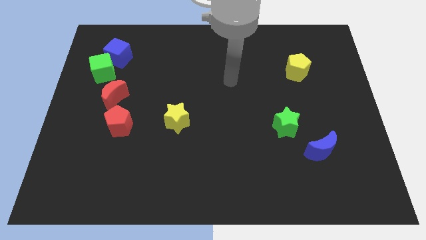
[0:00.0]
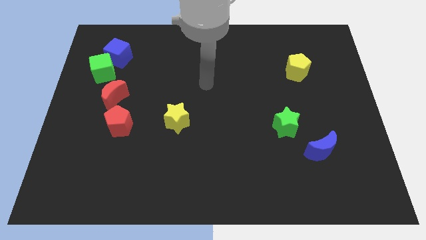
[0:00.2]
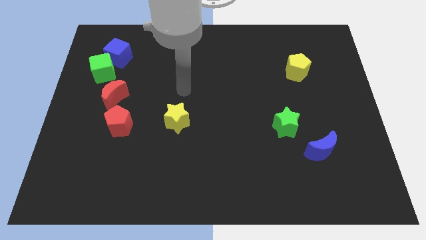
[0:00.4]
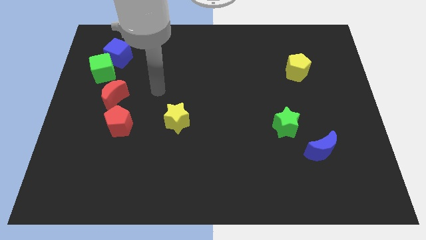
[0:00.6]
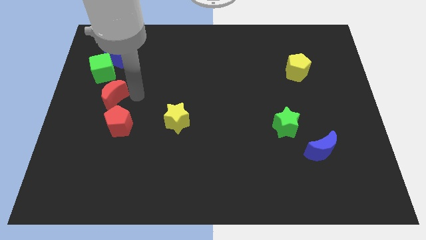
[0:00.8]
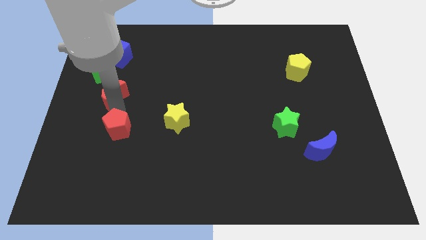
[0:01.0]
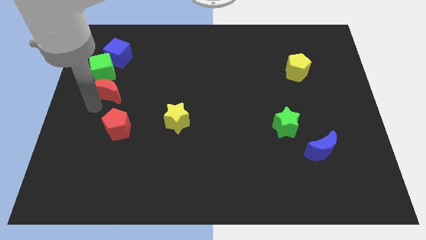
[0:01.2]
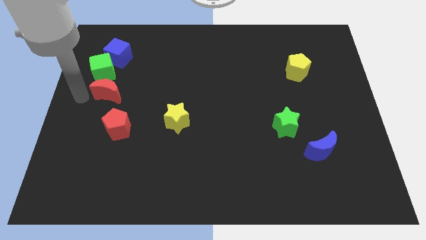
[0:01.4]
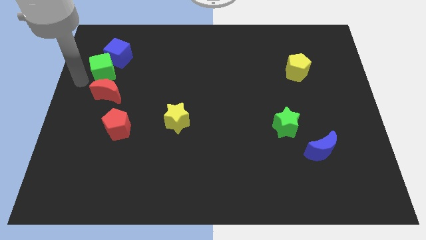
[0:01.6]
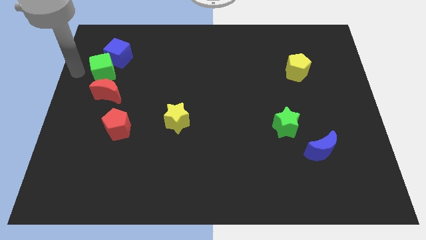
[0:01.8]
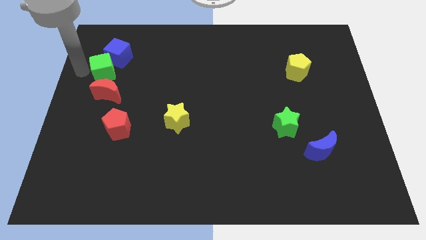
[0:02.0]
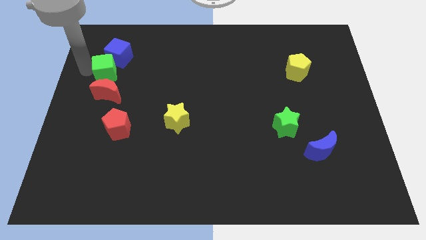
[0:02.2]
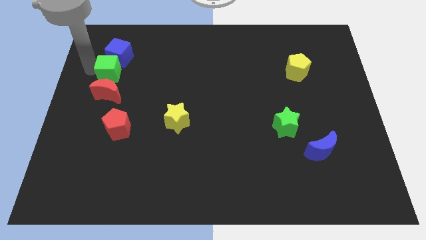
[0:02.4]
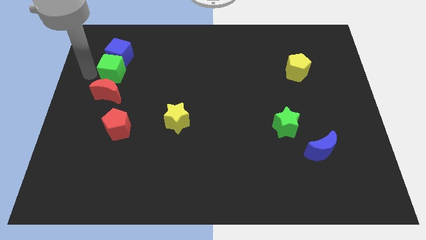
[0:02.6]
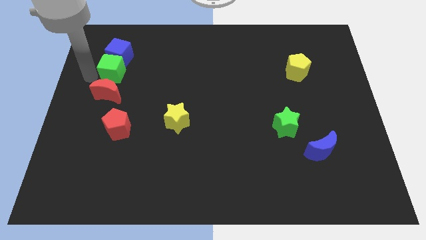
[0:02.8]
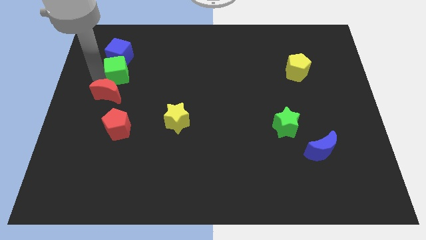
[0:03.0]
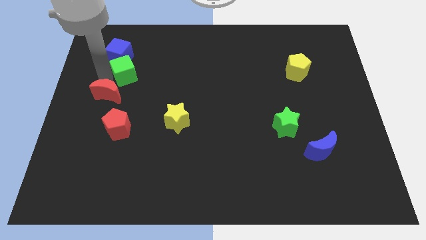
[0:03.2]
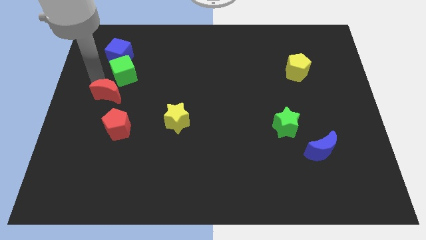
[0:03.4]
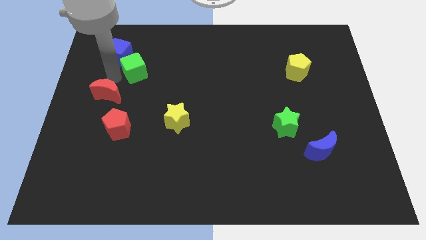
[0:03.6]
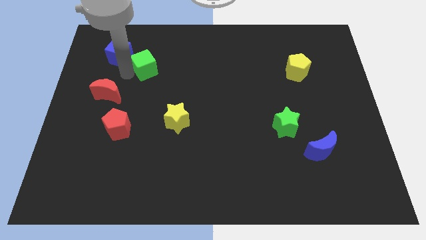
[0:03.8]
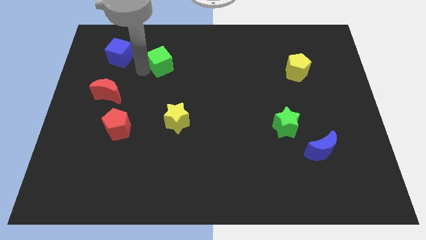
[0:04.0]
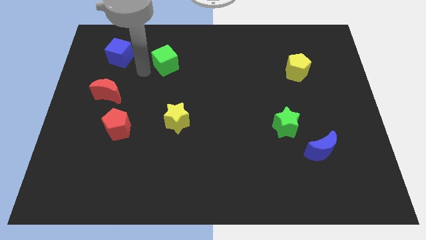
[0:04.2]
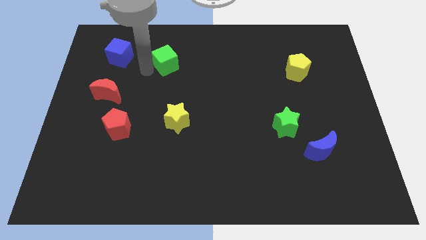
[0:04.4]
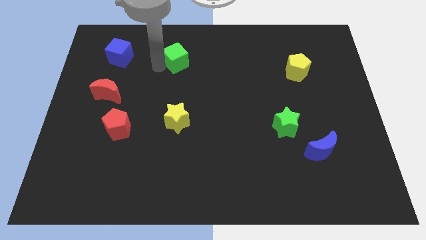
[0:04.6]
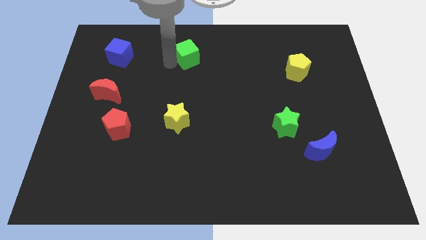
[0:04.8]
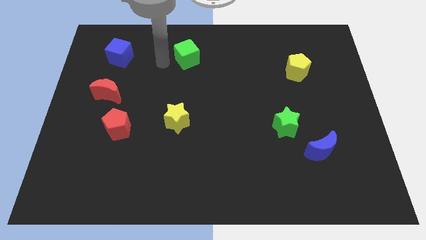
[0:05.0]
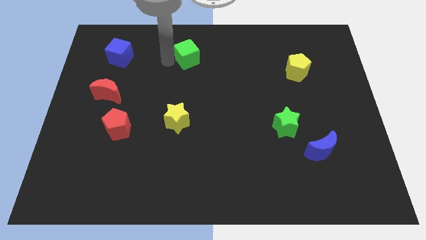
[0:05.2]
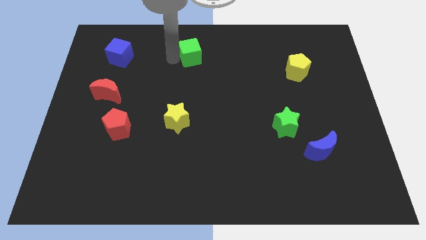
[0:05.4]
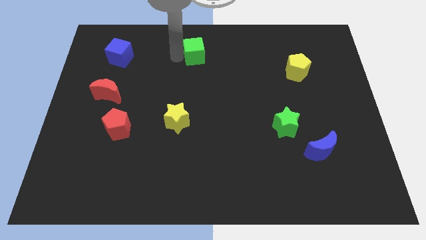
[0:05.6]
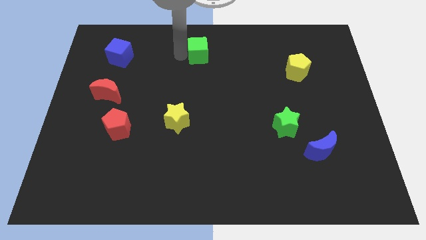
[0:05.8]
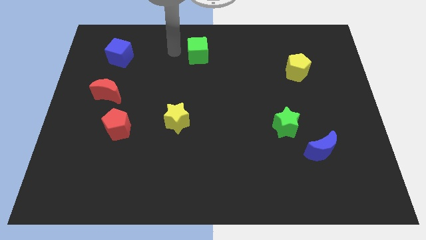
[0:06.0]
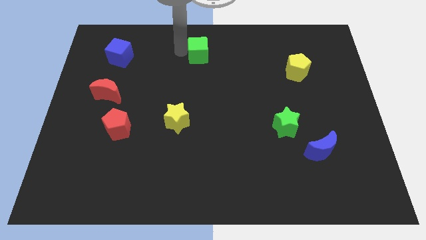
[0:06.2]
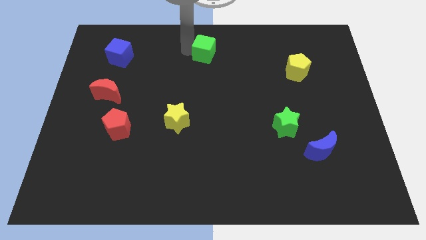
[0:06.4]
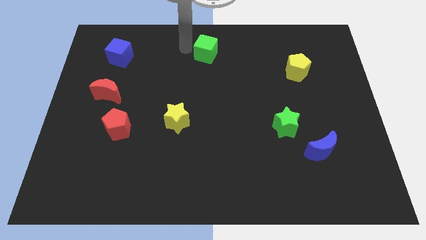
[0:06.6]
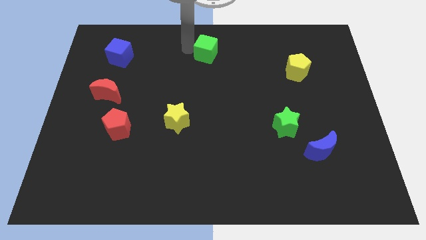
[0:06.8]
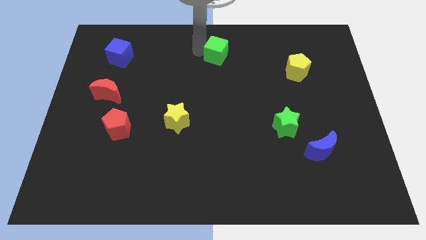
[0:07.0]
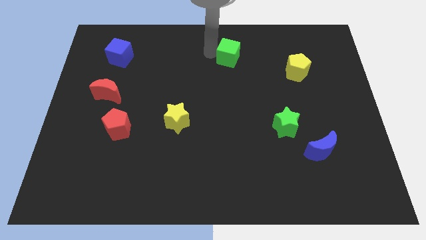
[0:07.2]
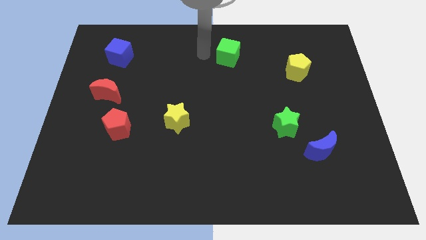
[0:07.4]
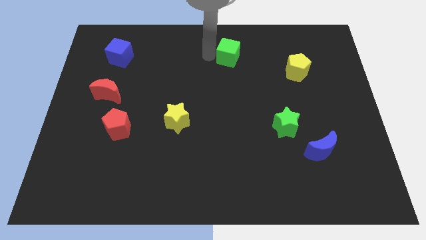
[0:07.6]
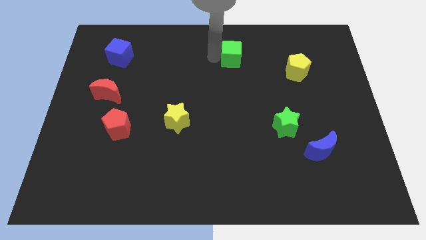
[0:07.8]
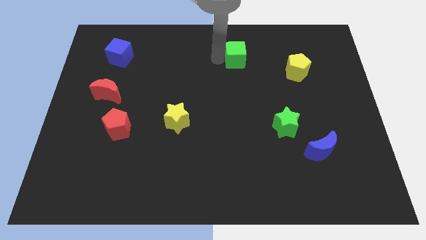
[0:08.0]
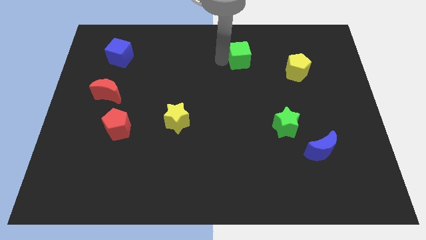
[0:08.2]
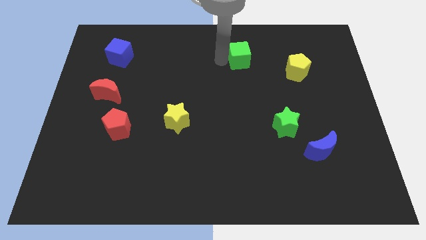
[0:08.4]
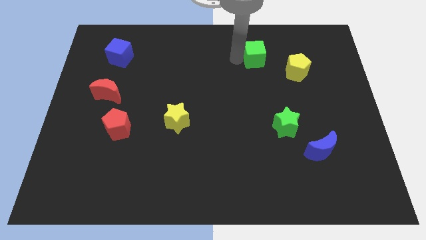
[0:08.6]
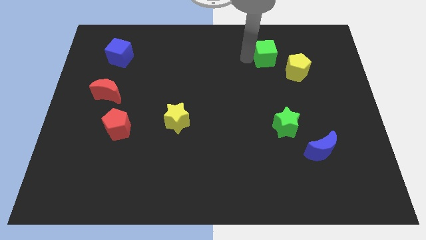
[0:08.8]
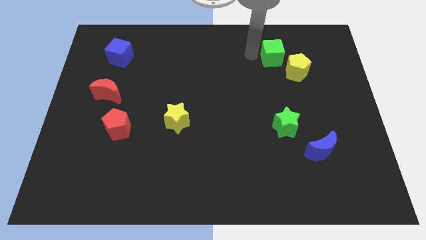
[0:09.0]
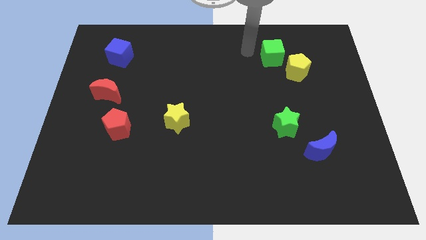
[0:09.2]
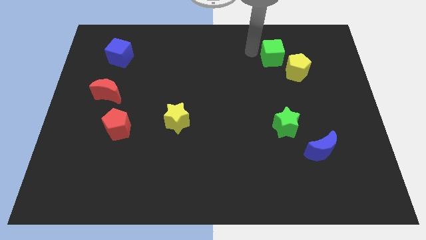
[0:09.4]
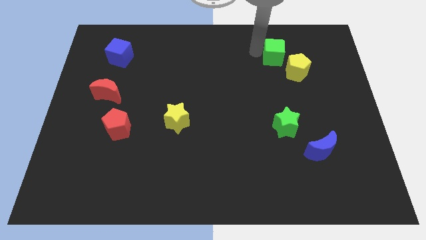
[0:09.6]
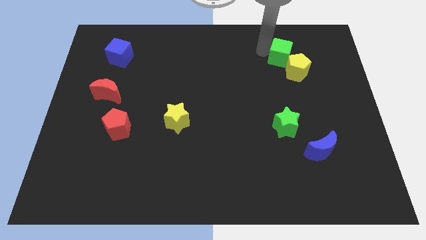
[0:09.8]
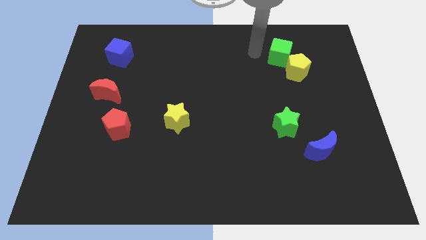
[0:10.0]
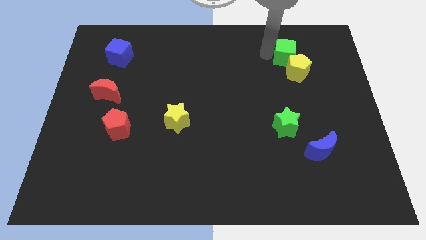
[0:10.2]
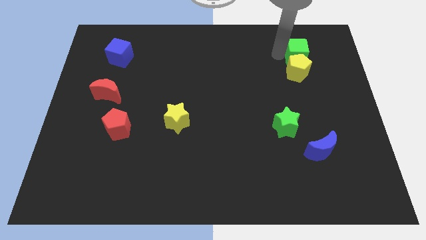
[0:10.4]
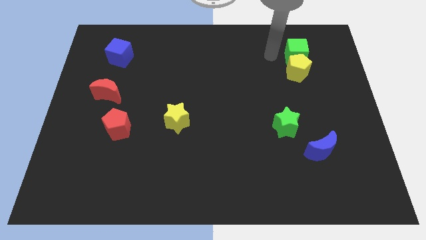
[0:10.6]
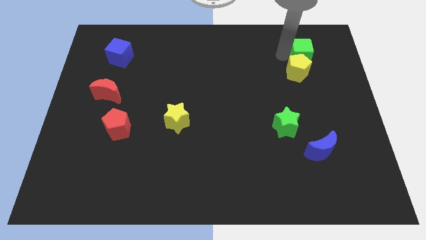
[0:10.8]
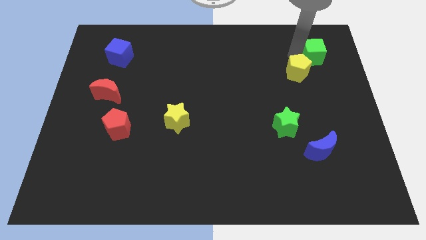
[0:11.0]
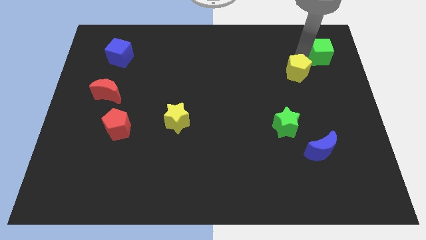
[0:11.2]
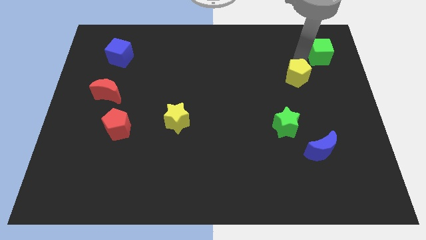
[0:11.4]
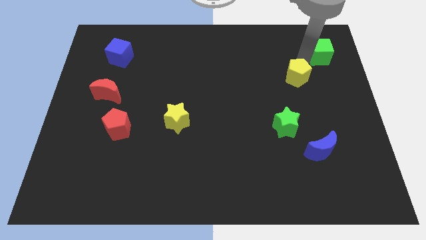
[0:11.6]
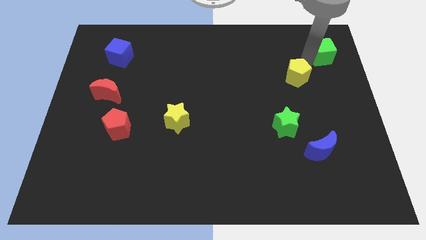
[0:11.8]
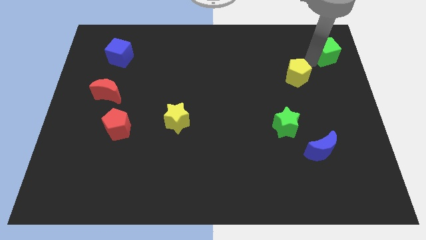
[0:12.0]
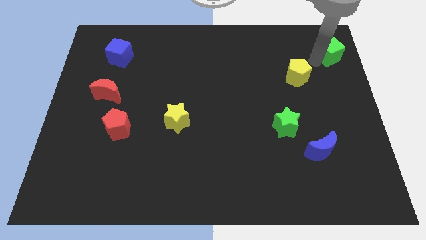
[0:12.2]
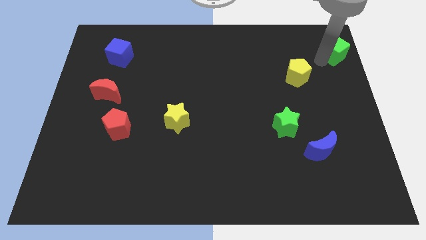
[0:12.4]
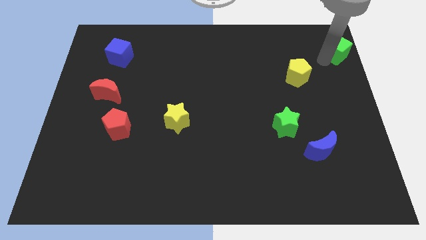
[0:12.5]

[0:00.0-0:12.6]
move the green cube to the top right of the board

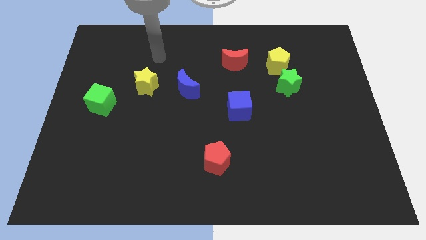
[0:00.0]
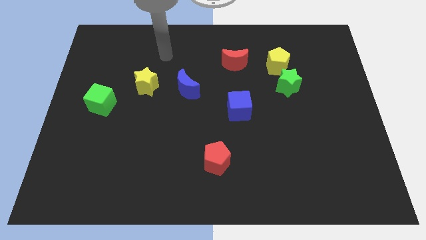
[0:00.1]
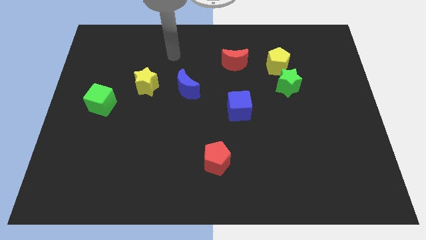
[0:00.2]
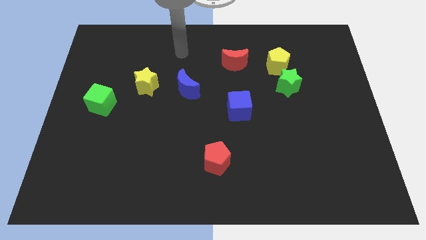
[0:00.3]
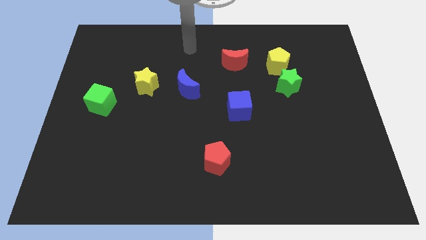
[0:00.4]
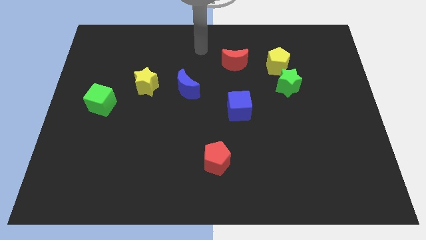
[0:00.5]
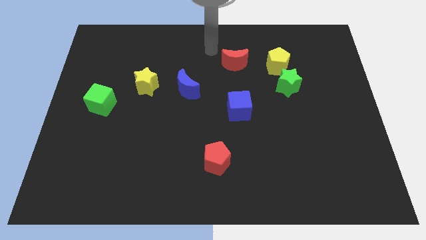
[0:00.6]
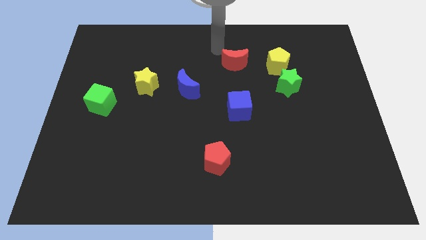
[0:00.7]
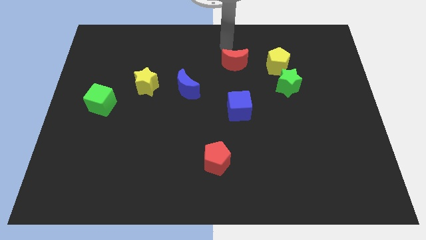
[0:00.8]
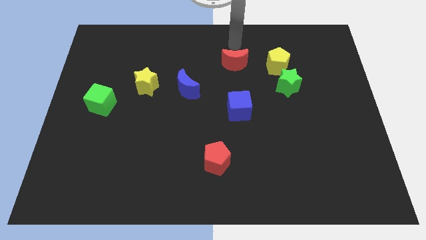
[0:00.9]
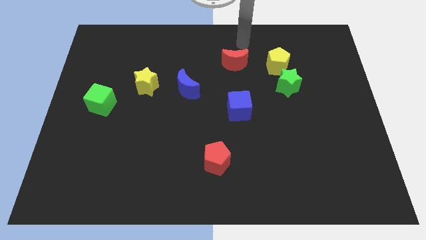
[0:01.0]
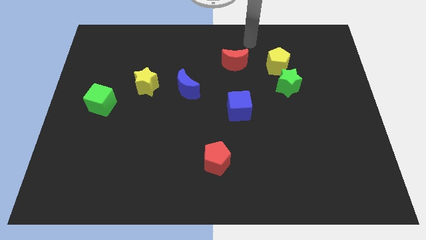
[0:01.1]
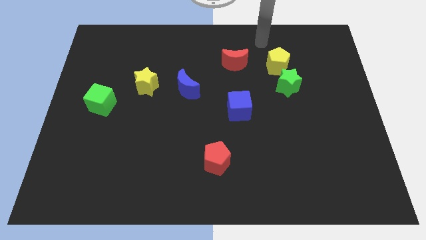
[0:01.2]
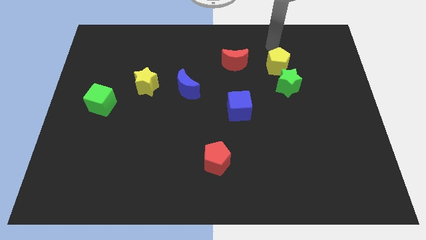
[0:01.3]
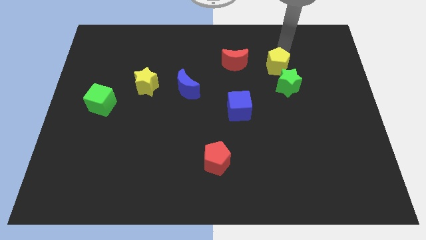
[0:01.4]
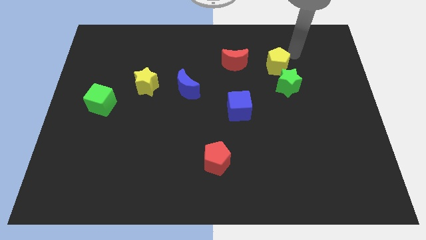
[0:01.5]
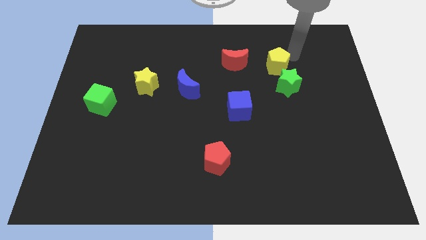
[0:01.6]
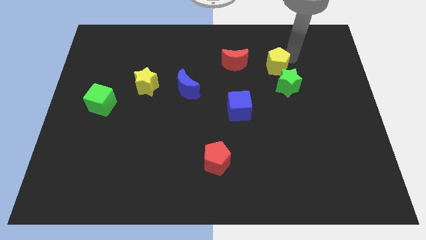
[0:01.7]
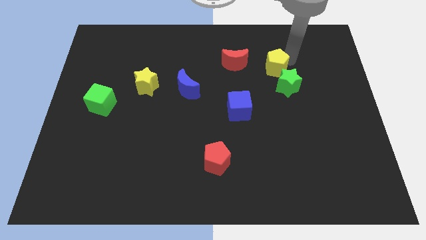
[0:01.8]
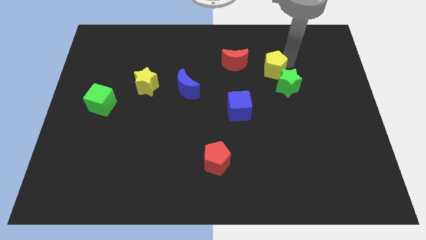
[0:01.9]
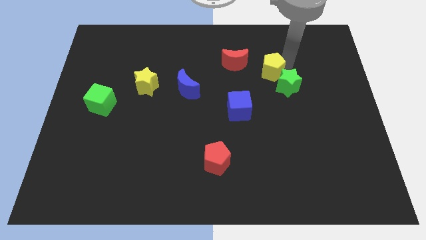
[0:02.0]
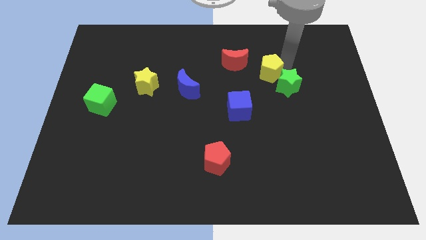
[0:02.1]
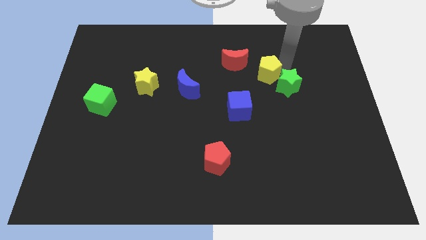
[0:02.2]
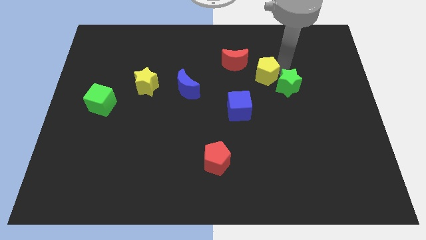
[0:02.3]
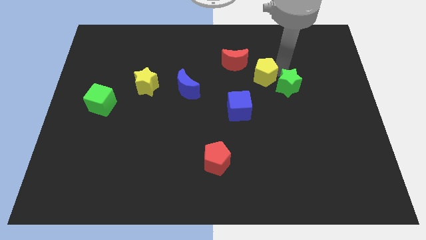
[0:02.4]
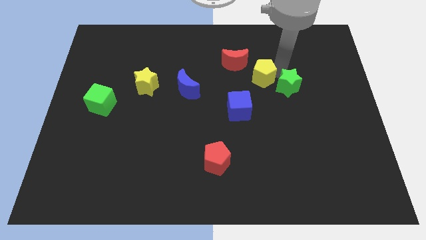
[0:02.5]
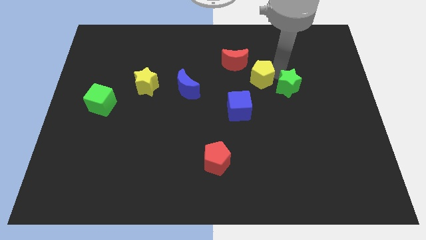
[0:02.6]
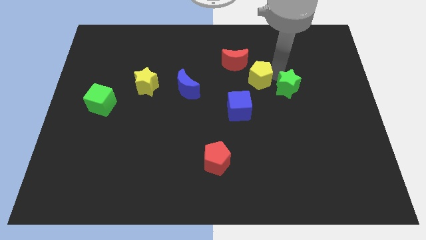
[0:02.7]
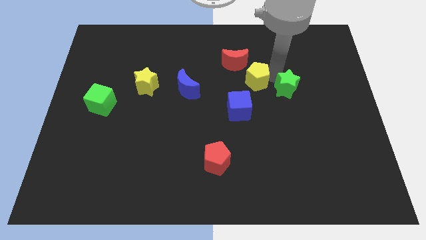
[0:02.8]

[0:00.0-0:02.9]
put the yellow pentagon to the center
